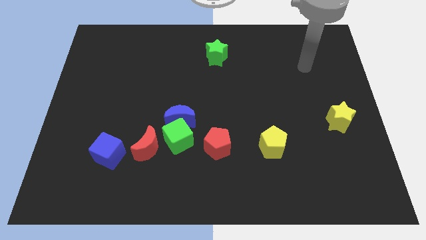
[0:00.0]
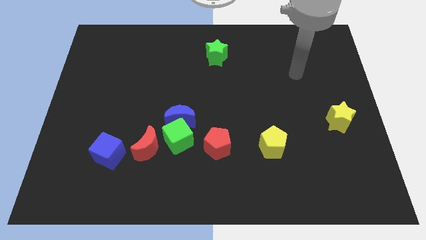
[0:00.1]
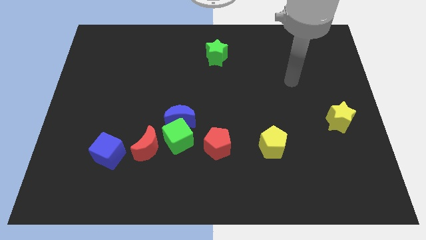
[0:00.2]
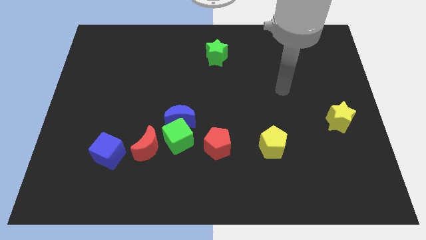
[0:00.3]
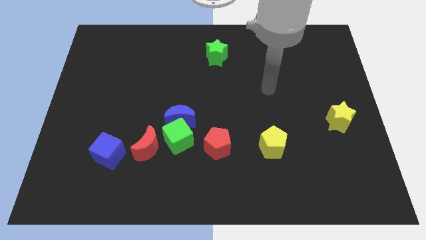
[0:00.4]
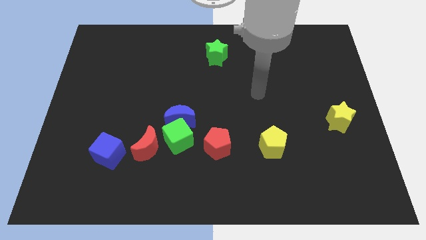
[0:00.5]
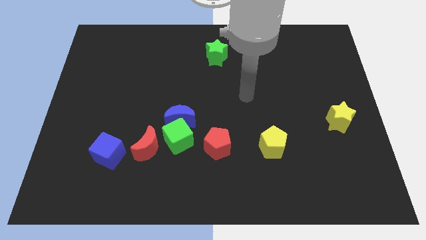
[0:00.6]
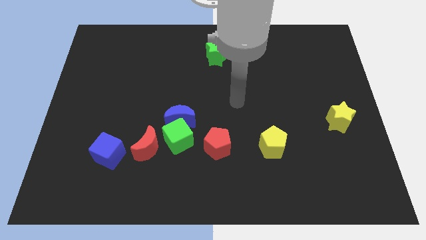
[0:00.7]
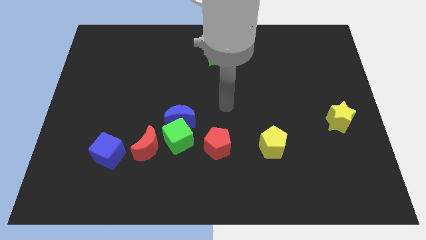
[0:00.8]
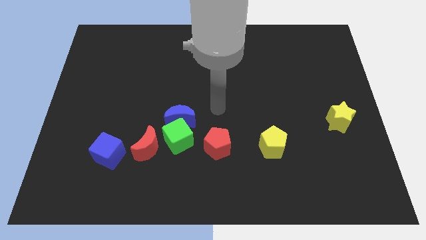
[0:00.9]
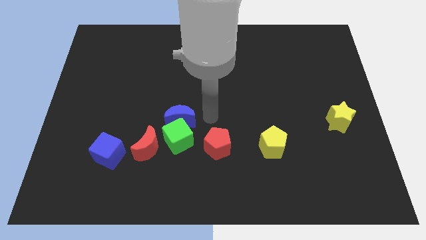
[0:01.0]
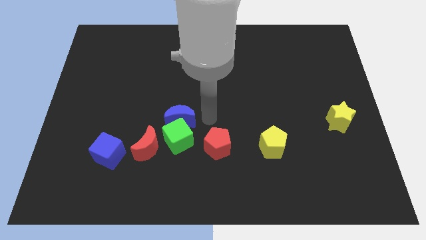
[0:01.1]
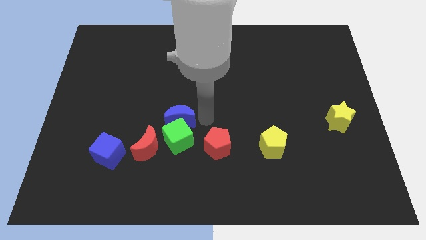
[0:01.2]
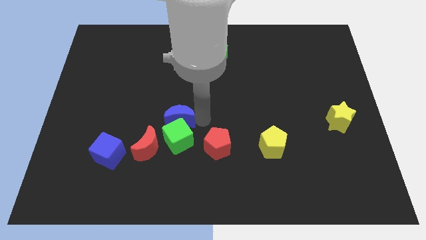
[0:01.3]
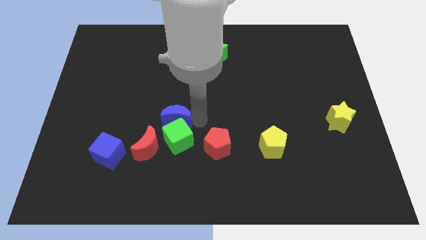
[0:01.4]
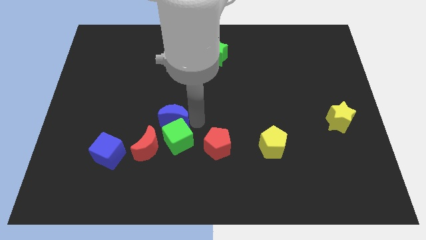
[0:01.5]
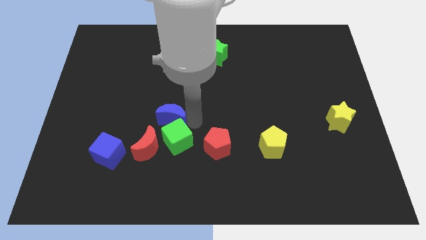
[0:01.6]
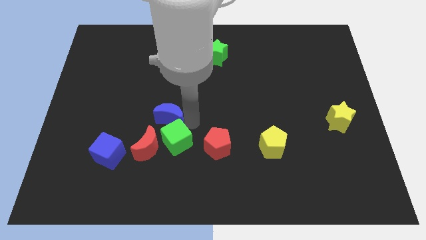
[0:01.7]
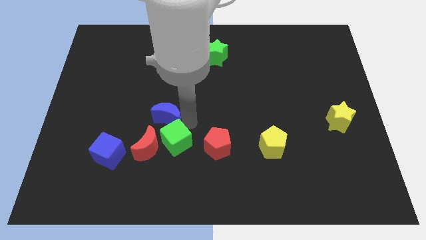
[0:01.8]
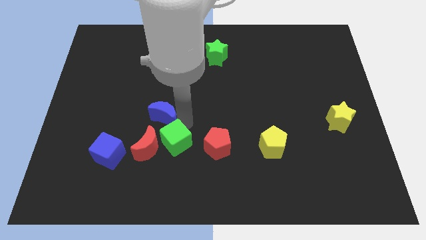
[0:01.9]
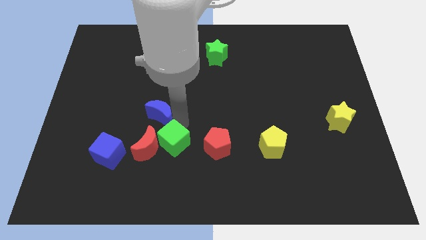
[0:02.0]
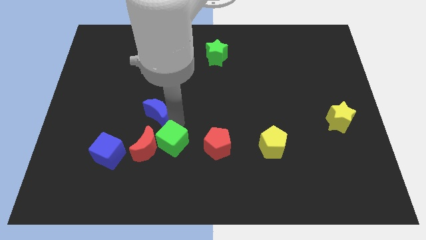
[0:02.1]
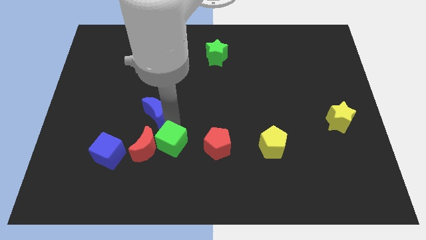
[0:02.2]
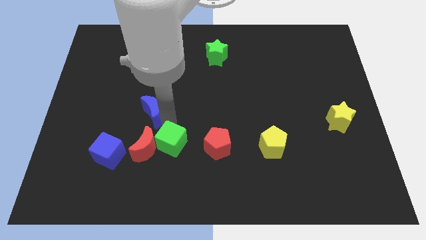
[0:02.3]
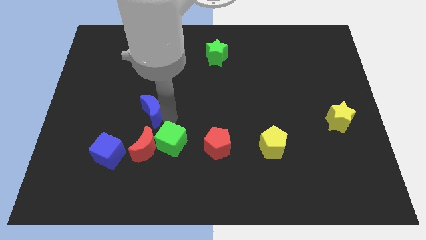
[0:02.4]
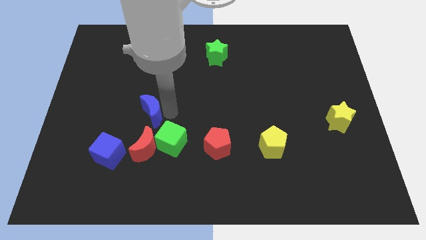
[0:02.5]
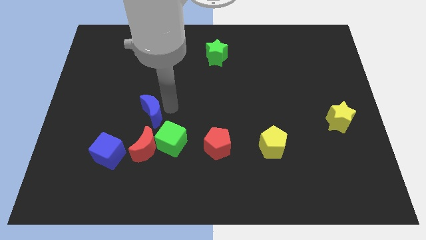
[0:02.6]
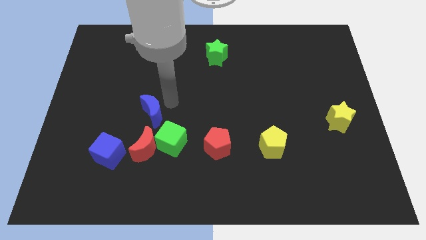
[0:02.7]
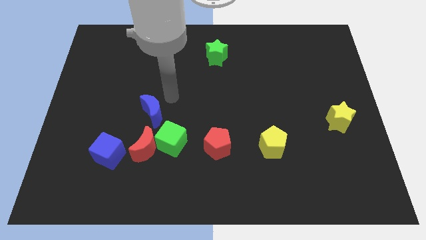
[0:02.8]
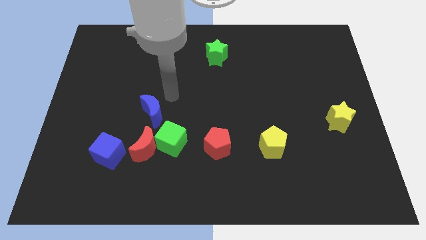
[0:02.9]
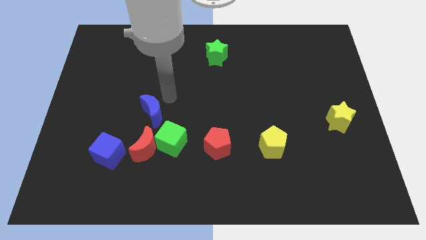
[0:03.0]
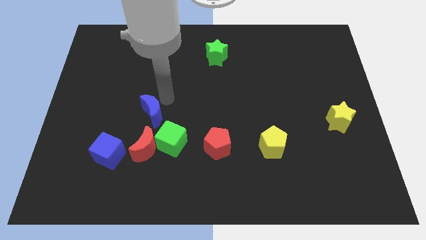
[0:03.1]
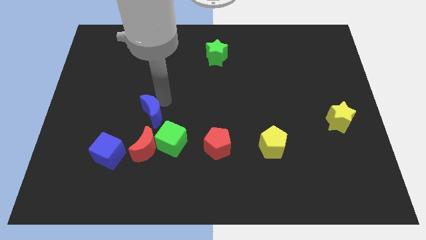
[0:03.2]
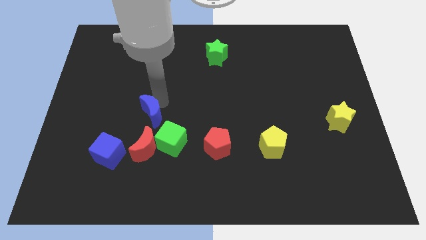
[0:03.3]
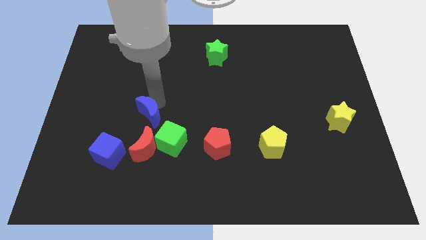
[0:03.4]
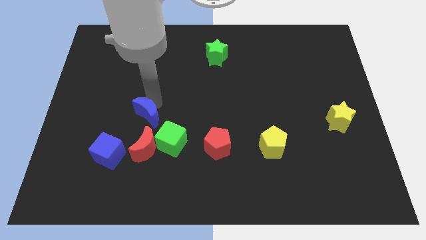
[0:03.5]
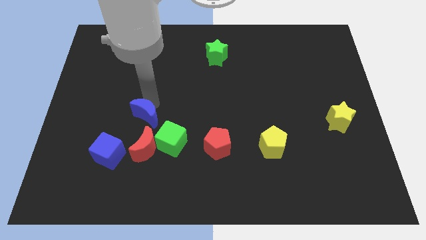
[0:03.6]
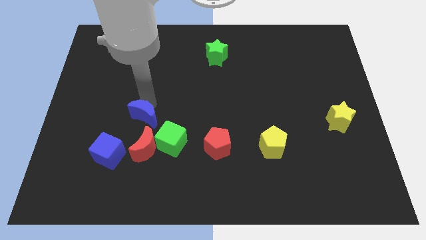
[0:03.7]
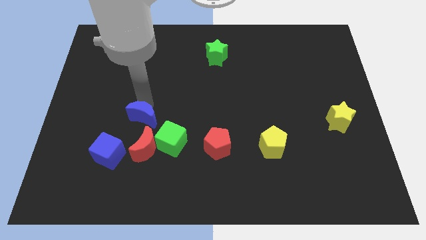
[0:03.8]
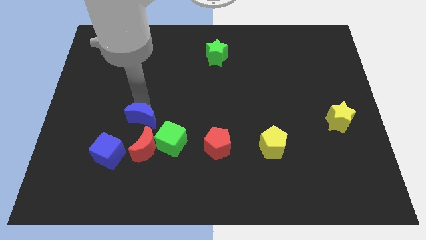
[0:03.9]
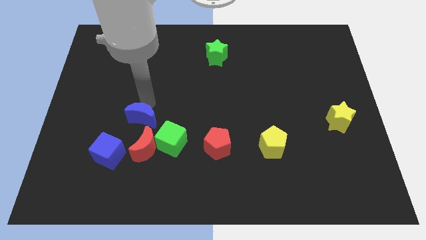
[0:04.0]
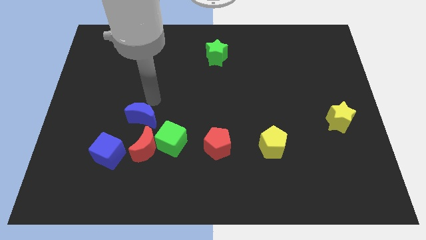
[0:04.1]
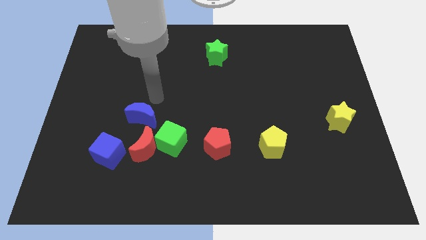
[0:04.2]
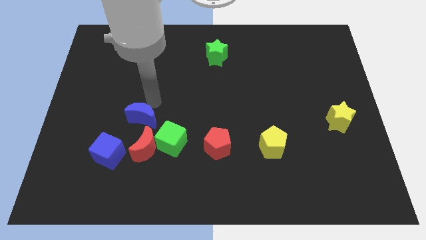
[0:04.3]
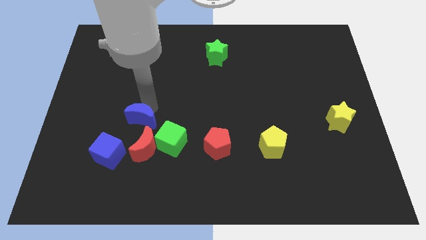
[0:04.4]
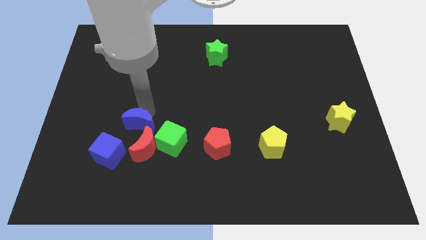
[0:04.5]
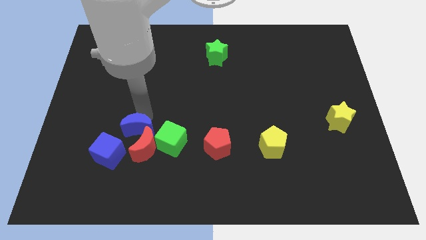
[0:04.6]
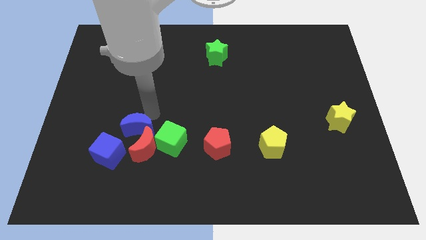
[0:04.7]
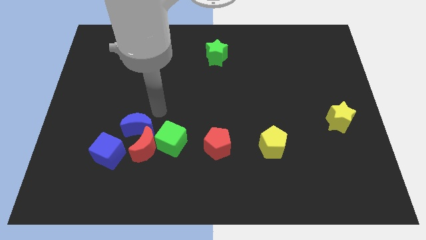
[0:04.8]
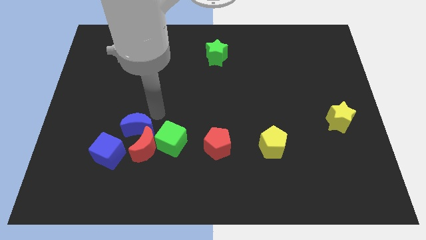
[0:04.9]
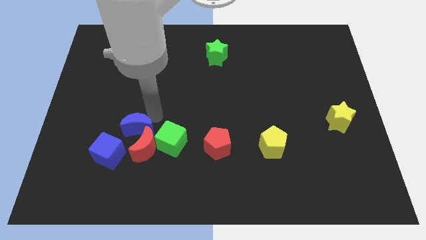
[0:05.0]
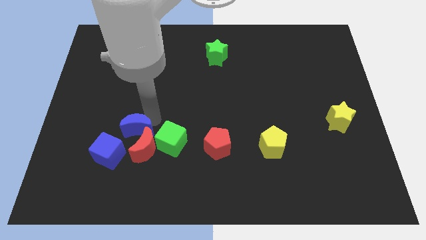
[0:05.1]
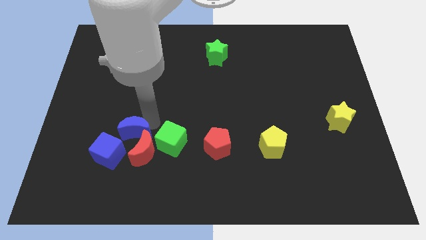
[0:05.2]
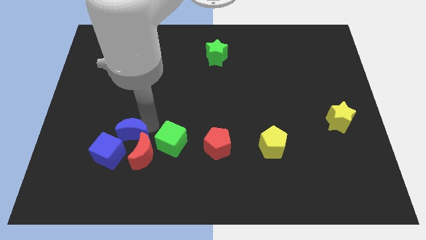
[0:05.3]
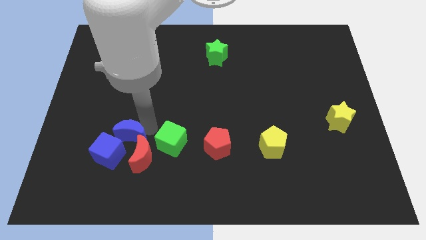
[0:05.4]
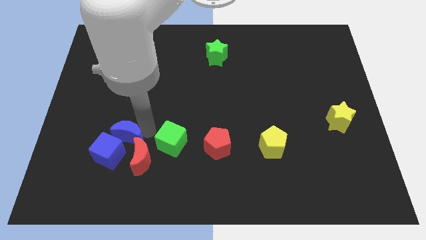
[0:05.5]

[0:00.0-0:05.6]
push the blue moon next to the blue cube

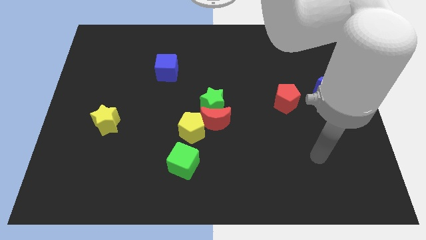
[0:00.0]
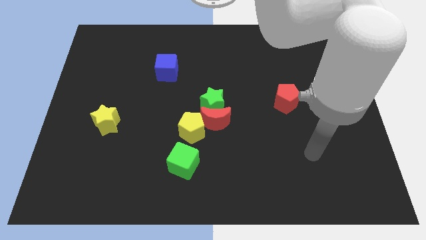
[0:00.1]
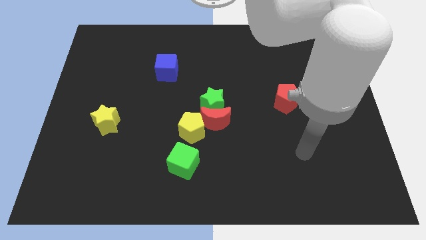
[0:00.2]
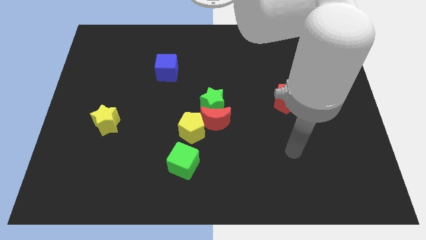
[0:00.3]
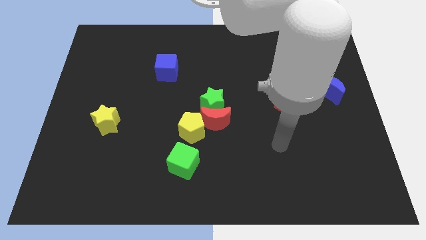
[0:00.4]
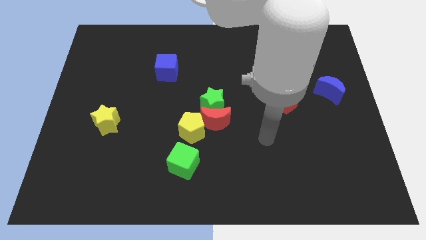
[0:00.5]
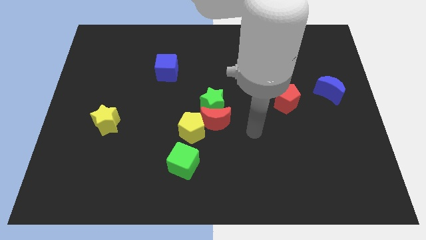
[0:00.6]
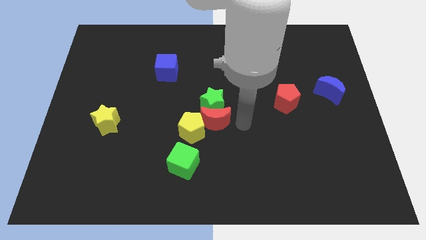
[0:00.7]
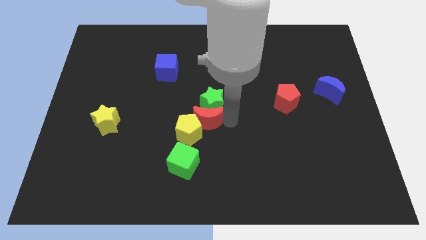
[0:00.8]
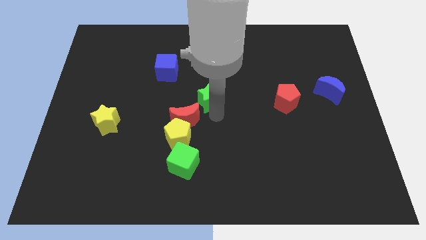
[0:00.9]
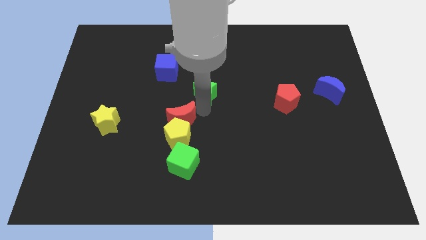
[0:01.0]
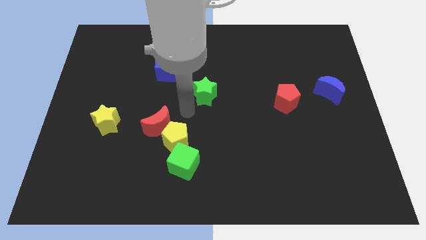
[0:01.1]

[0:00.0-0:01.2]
move the yellow pentagon to the green cube
